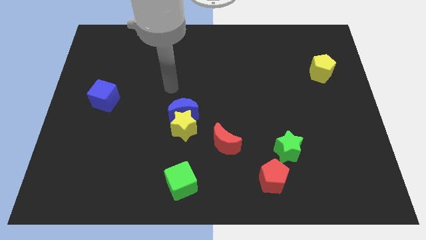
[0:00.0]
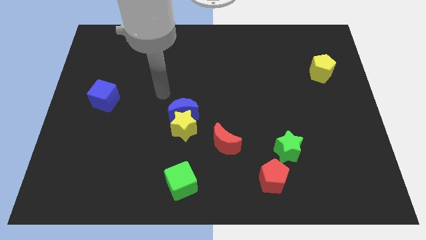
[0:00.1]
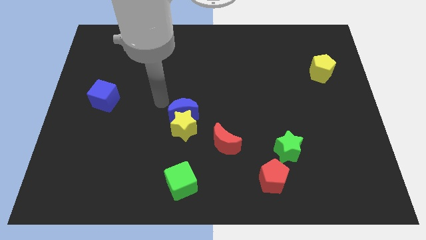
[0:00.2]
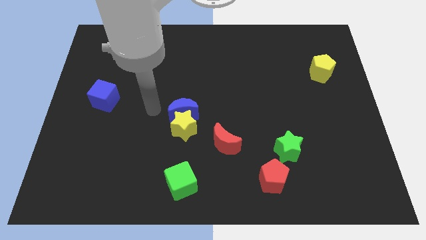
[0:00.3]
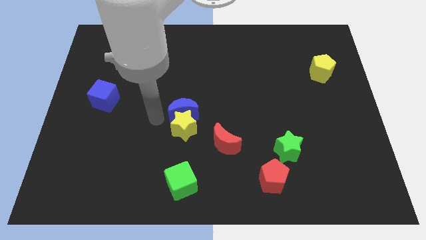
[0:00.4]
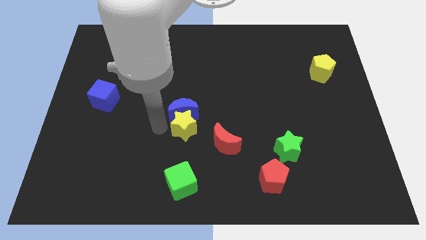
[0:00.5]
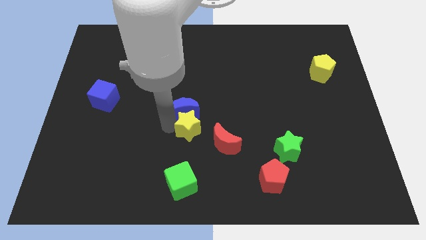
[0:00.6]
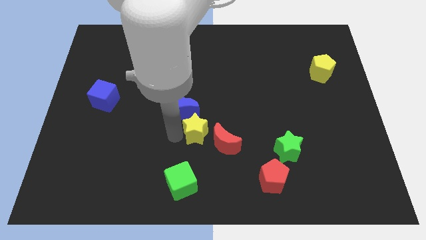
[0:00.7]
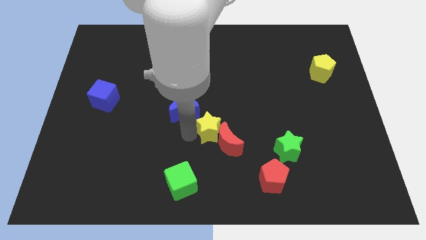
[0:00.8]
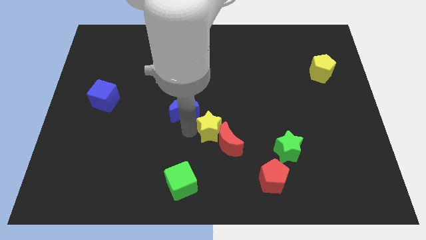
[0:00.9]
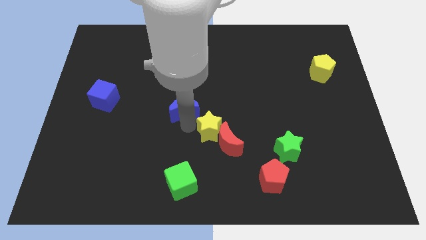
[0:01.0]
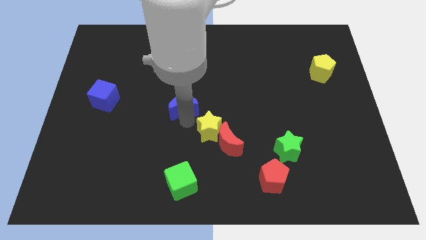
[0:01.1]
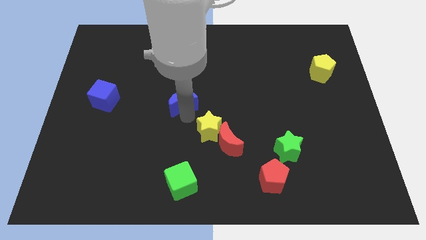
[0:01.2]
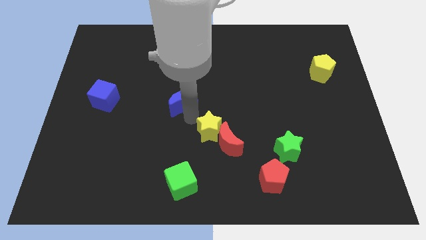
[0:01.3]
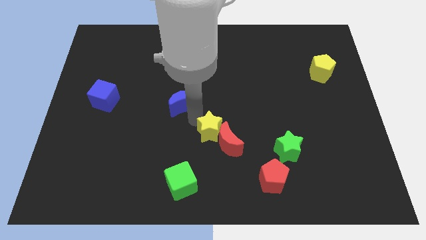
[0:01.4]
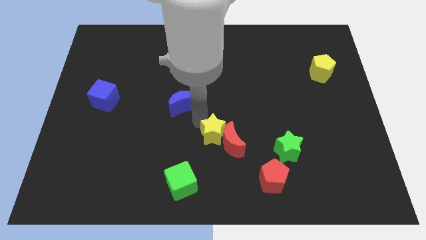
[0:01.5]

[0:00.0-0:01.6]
separate the blue moon from the yellow star

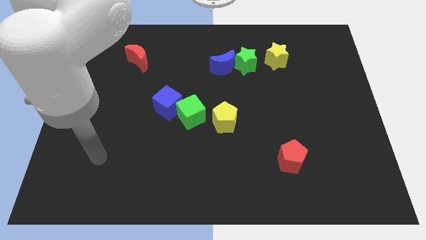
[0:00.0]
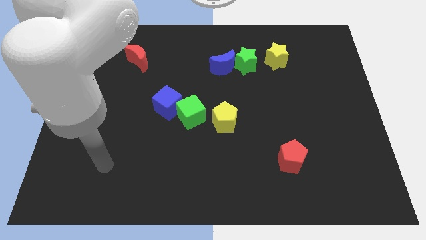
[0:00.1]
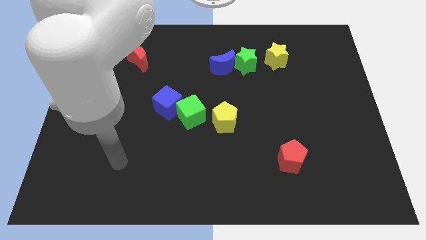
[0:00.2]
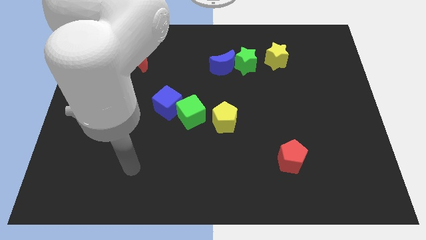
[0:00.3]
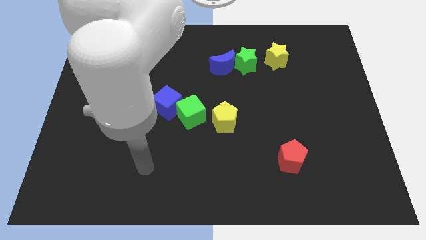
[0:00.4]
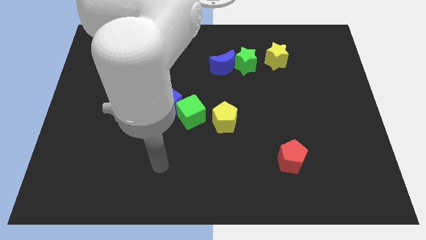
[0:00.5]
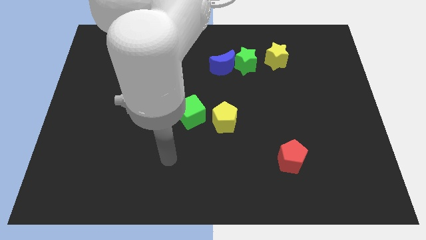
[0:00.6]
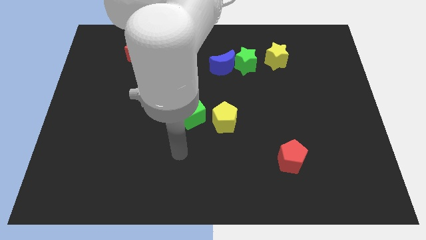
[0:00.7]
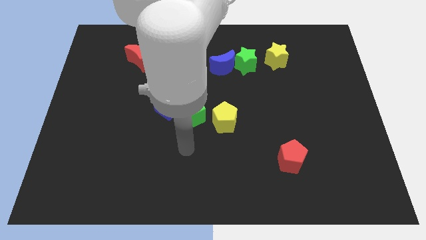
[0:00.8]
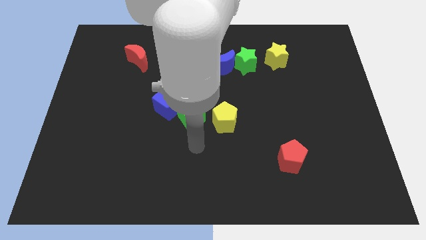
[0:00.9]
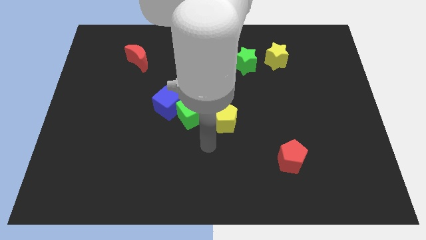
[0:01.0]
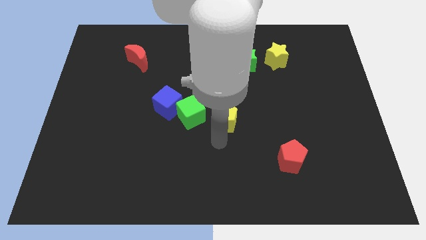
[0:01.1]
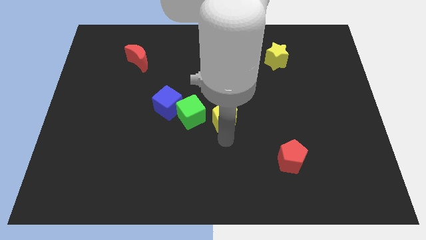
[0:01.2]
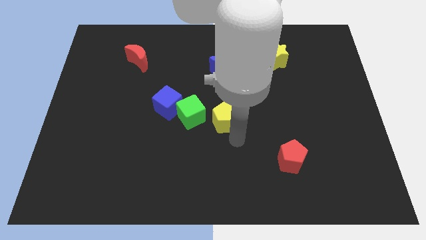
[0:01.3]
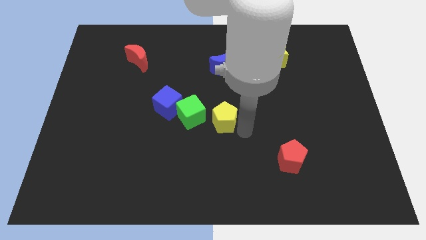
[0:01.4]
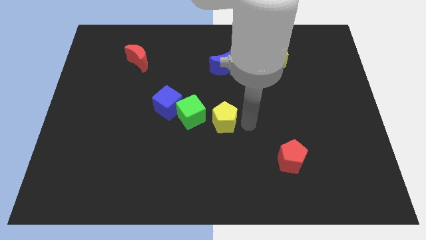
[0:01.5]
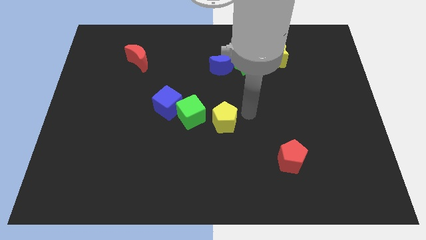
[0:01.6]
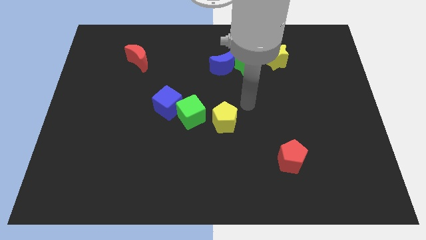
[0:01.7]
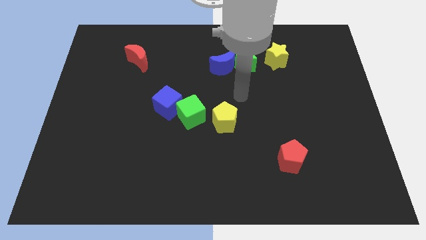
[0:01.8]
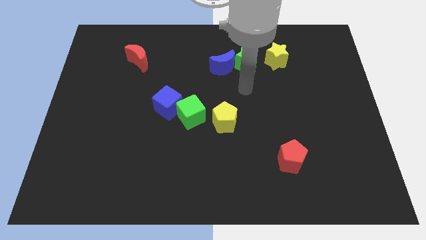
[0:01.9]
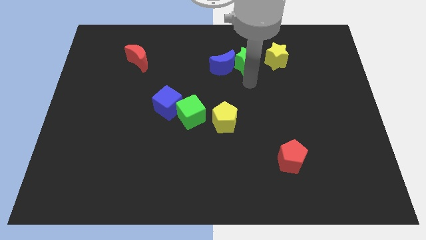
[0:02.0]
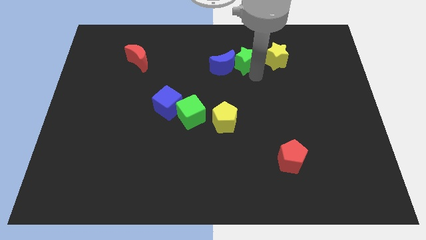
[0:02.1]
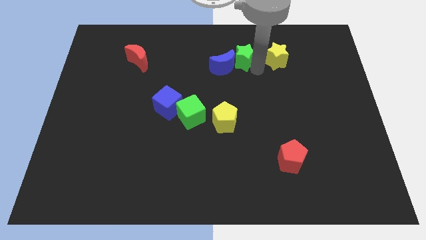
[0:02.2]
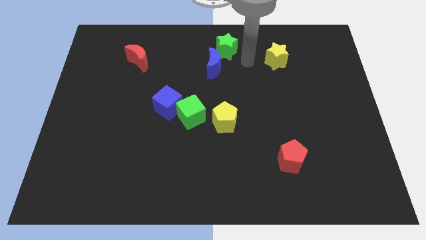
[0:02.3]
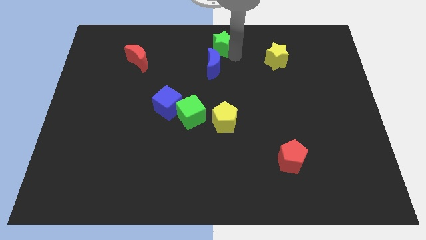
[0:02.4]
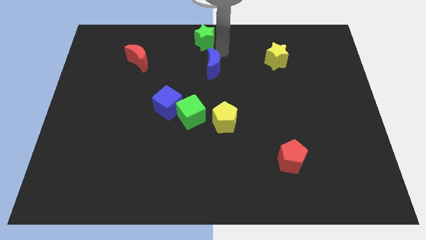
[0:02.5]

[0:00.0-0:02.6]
move the blue moon away from the green star

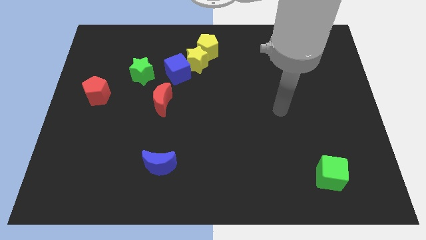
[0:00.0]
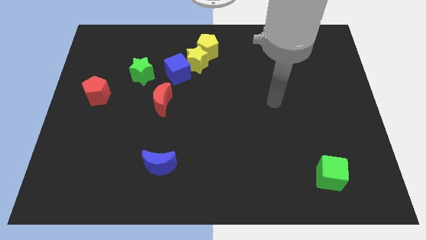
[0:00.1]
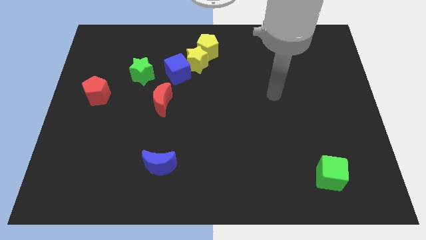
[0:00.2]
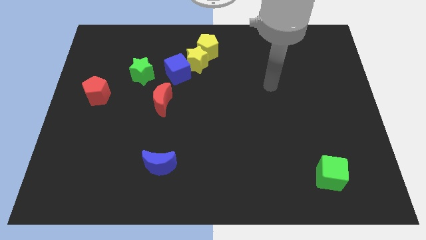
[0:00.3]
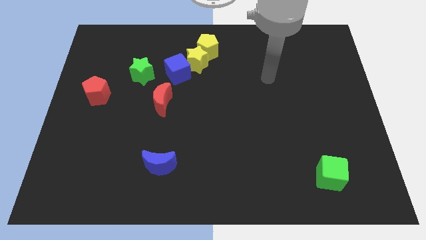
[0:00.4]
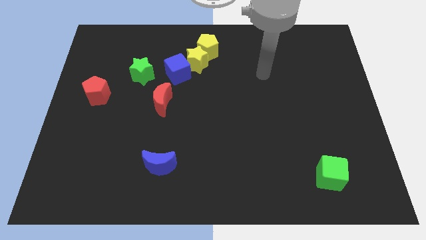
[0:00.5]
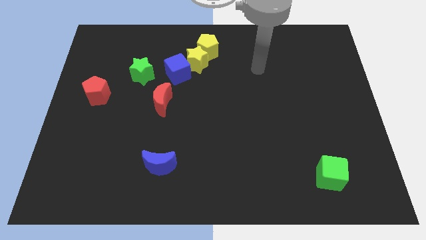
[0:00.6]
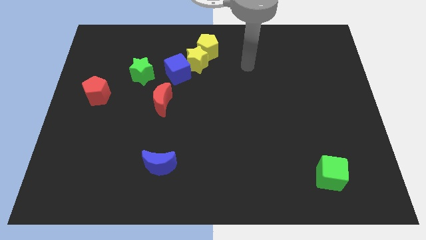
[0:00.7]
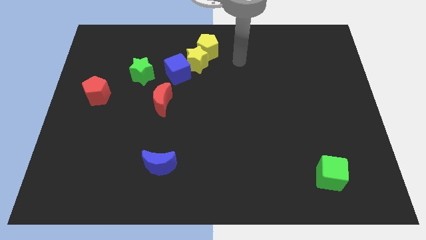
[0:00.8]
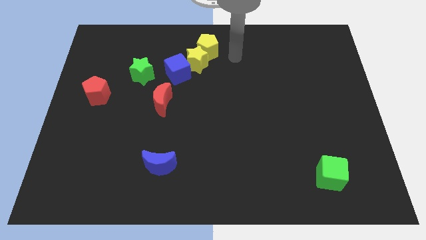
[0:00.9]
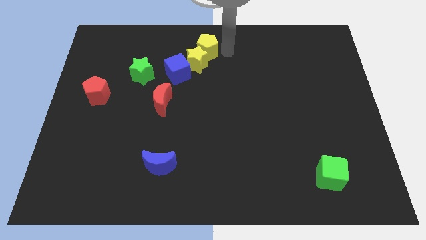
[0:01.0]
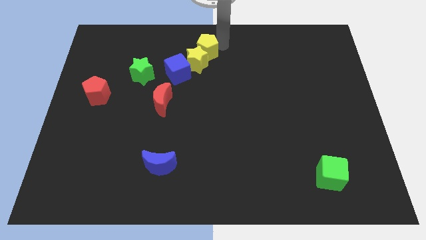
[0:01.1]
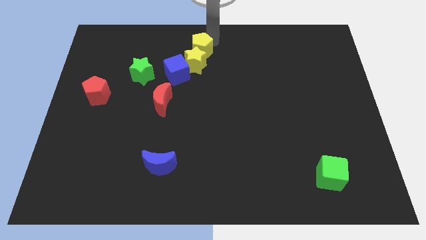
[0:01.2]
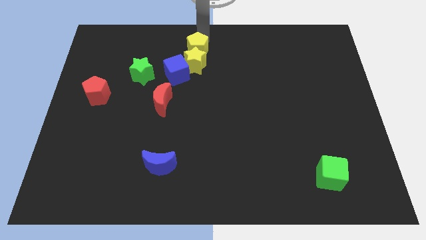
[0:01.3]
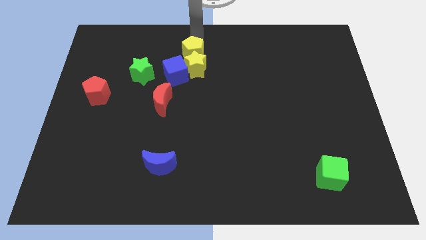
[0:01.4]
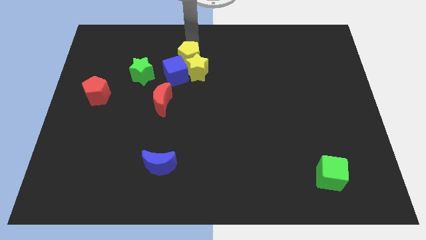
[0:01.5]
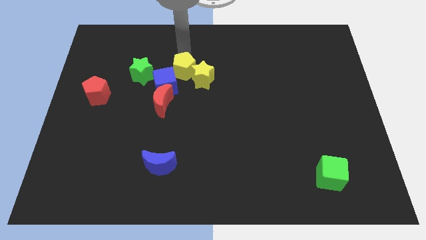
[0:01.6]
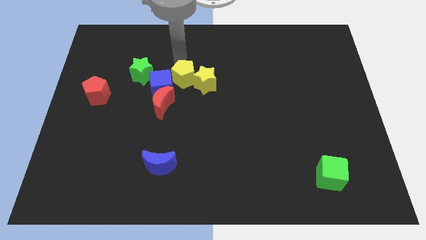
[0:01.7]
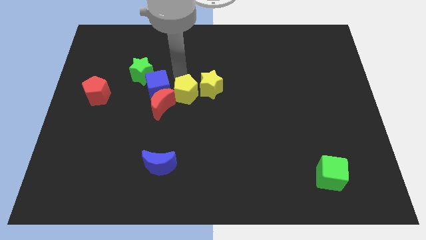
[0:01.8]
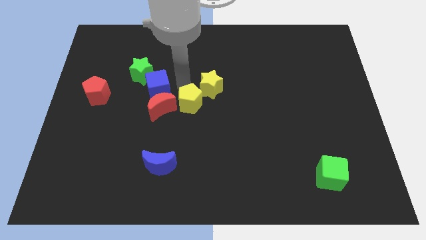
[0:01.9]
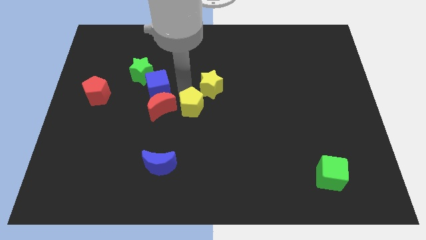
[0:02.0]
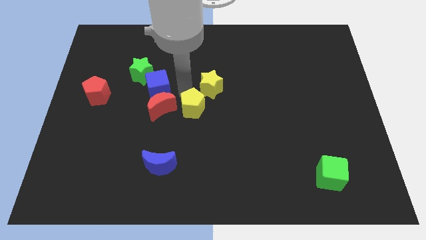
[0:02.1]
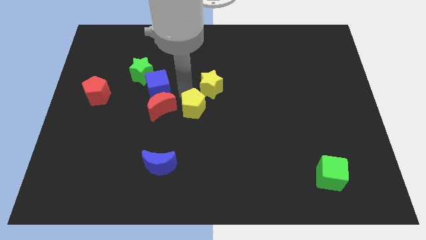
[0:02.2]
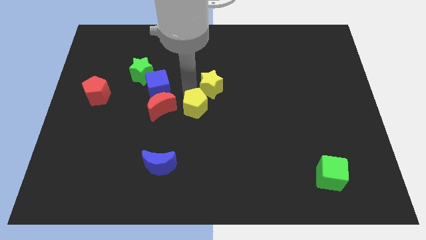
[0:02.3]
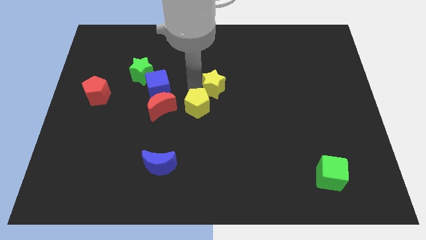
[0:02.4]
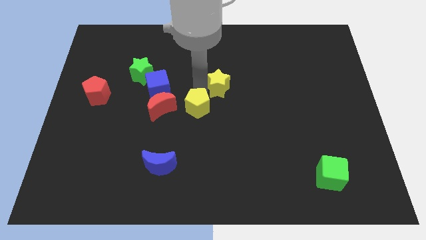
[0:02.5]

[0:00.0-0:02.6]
move the yellow star away from the blue cube and yellow pentagon

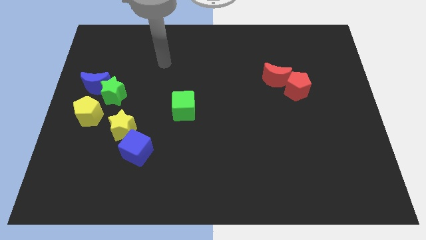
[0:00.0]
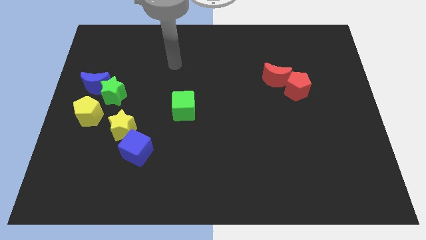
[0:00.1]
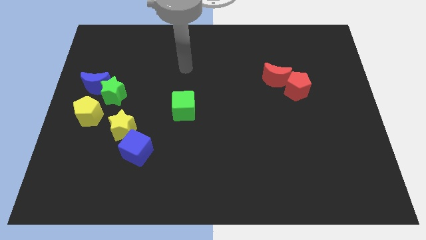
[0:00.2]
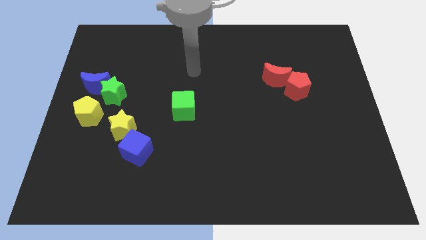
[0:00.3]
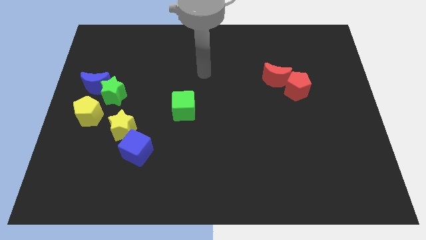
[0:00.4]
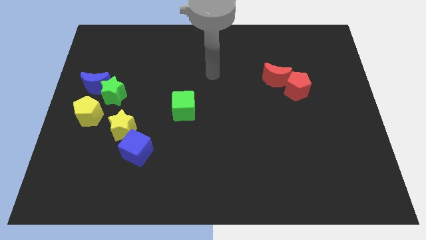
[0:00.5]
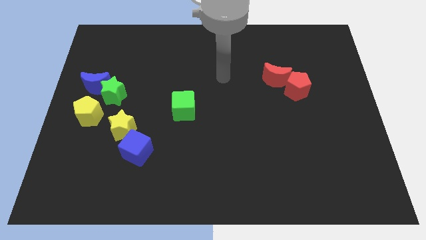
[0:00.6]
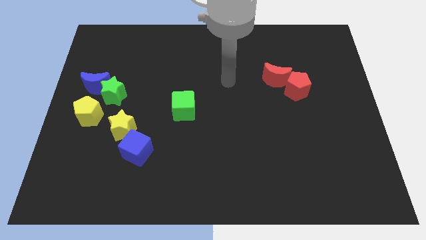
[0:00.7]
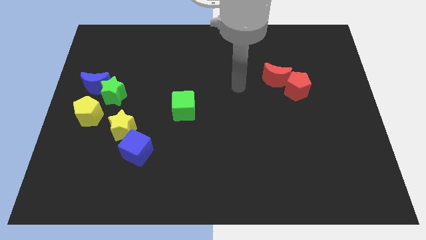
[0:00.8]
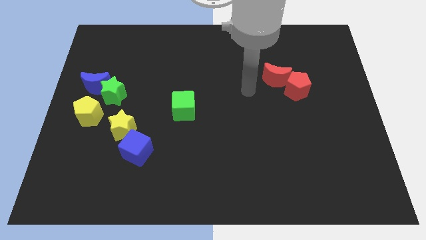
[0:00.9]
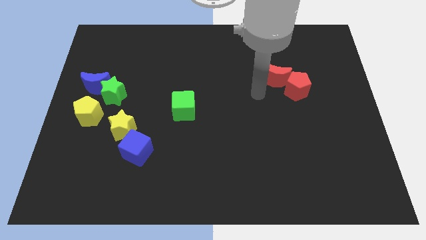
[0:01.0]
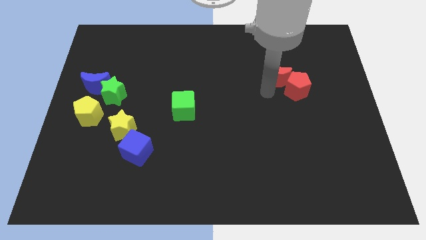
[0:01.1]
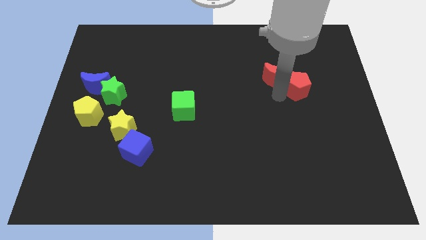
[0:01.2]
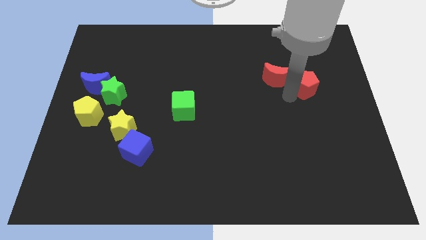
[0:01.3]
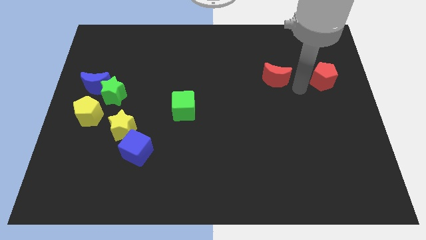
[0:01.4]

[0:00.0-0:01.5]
pull the red moon apart from the red pentagon

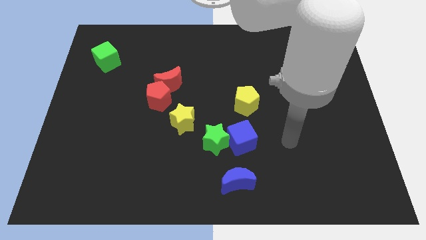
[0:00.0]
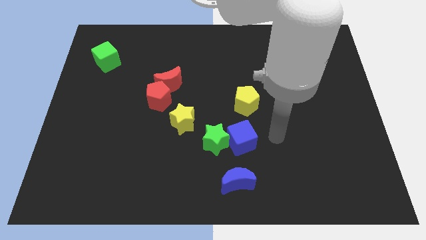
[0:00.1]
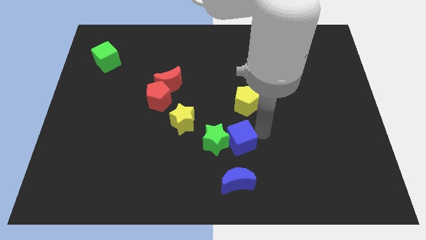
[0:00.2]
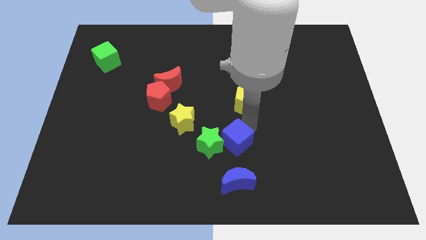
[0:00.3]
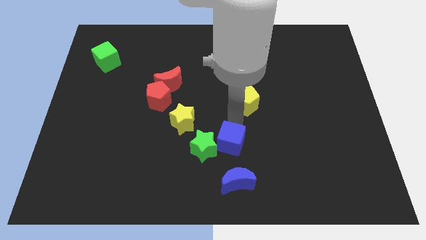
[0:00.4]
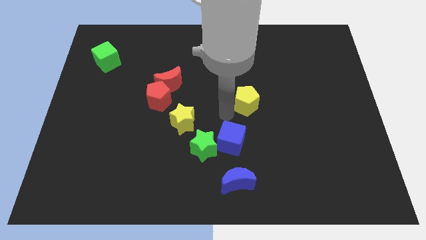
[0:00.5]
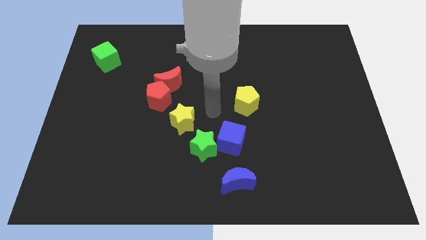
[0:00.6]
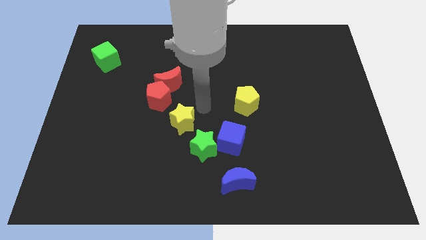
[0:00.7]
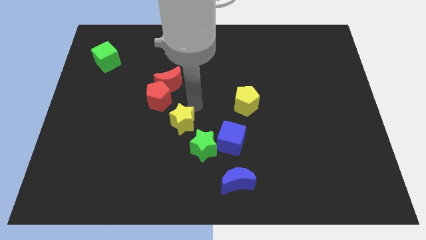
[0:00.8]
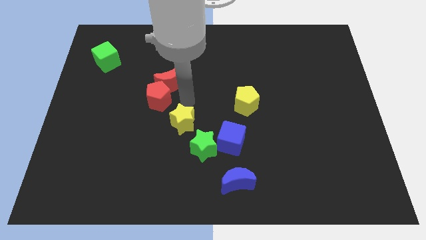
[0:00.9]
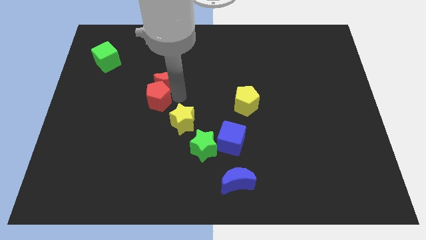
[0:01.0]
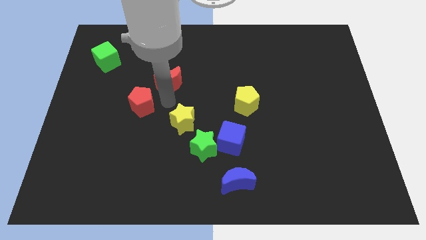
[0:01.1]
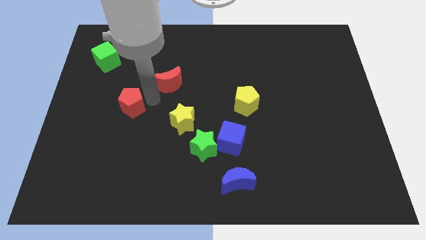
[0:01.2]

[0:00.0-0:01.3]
move the red moon away from the red pentagon
